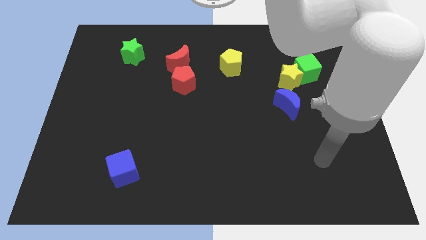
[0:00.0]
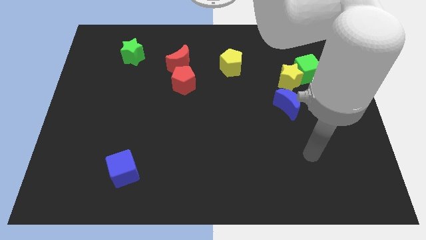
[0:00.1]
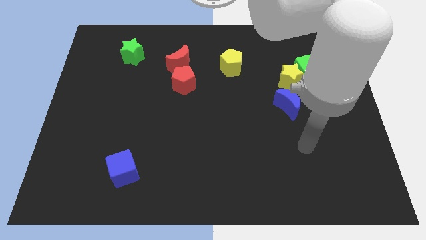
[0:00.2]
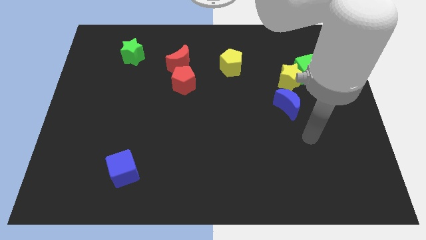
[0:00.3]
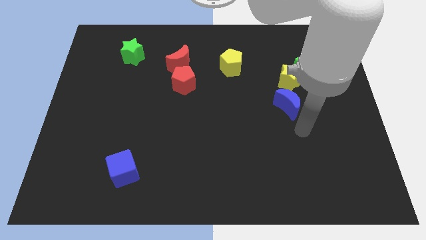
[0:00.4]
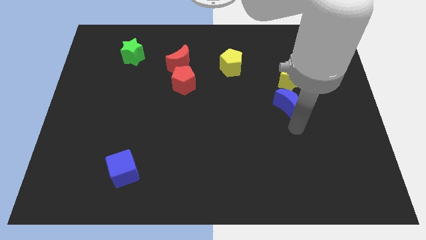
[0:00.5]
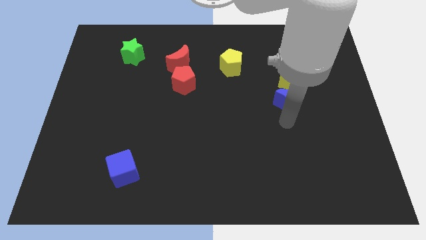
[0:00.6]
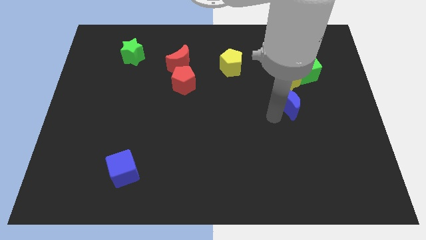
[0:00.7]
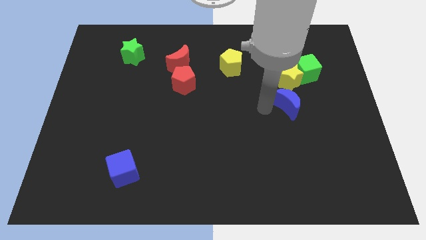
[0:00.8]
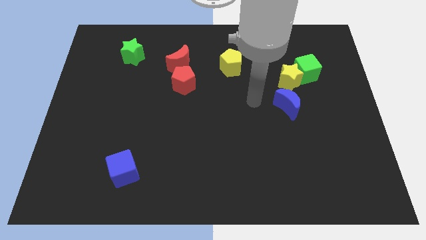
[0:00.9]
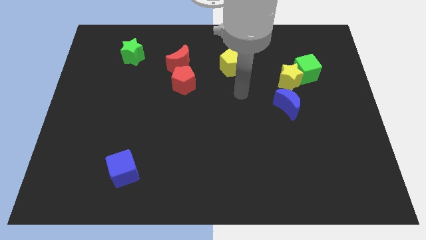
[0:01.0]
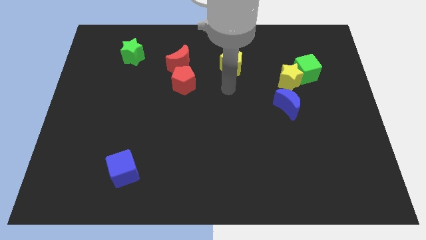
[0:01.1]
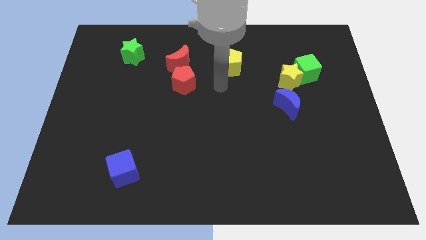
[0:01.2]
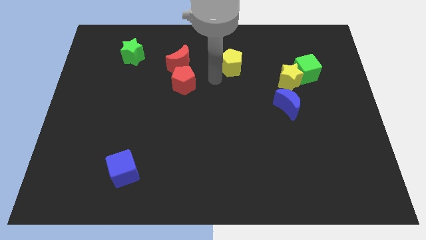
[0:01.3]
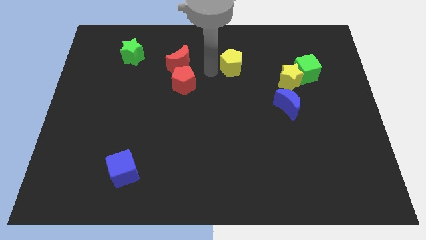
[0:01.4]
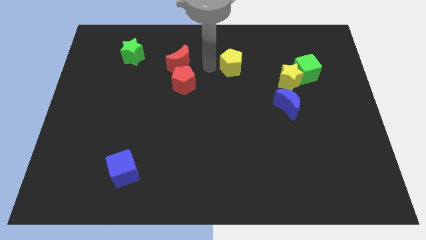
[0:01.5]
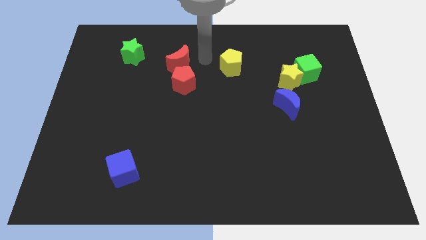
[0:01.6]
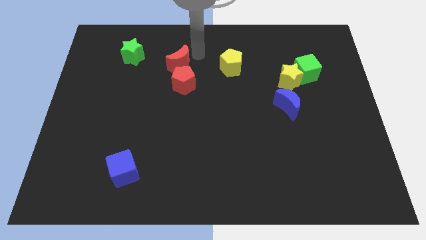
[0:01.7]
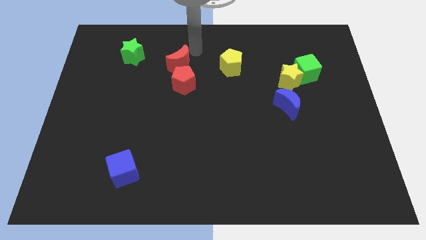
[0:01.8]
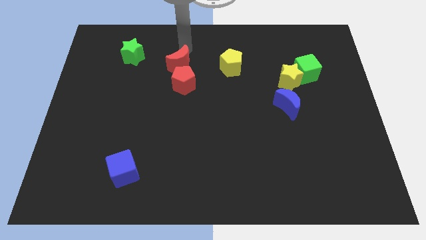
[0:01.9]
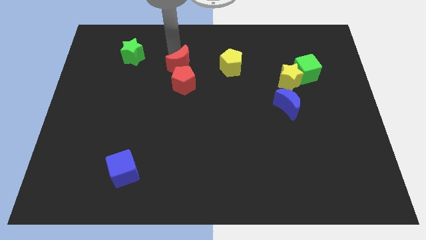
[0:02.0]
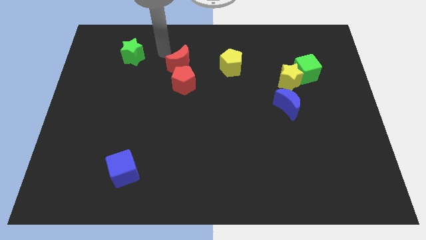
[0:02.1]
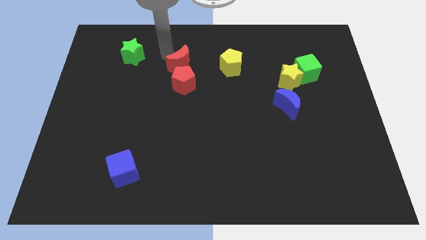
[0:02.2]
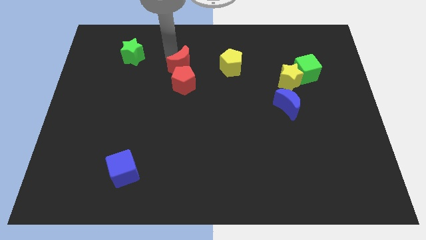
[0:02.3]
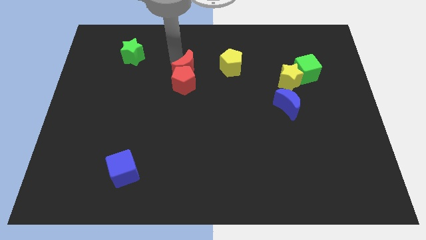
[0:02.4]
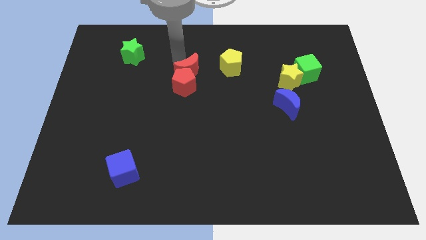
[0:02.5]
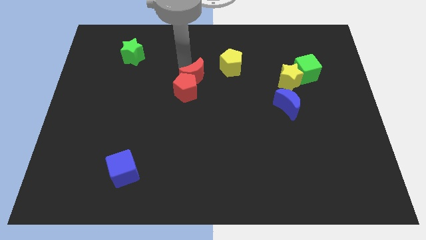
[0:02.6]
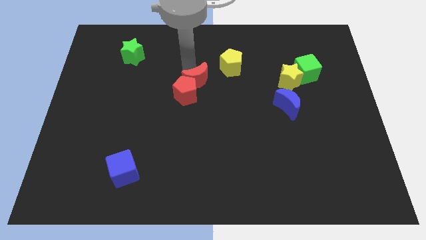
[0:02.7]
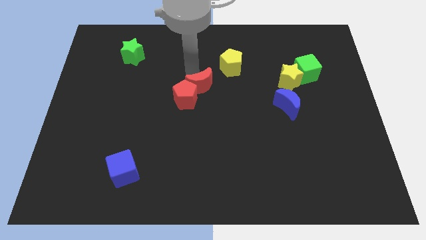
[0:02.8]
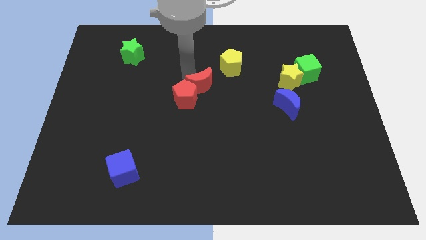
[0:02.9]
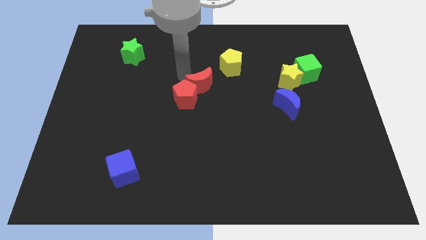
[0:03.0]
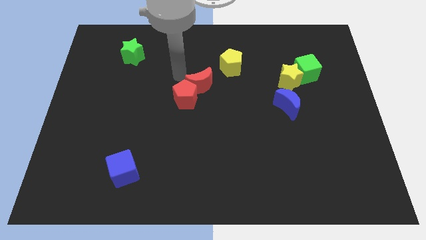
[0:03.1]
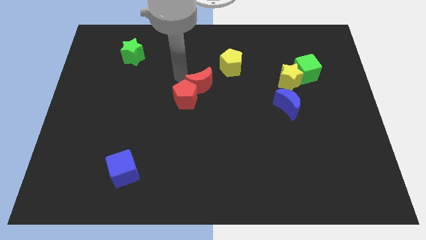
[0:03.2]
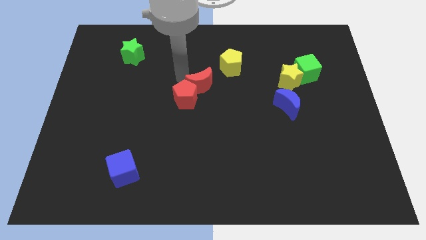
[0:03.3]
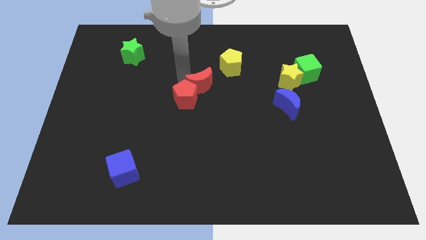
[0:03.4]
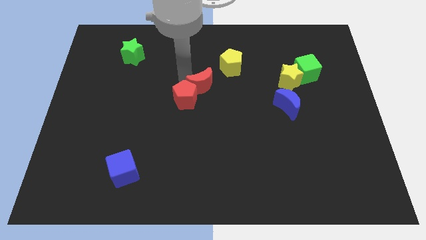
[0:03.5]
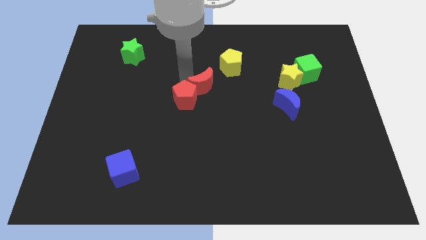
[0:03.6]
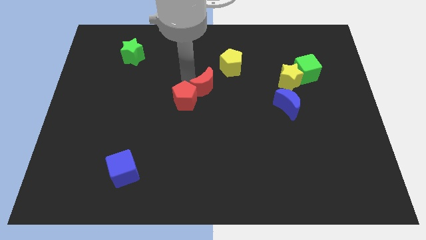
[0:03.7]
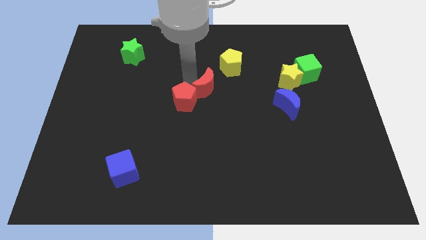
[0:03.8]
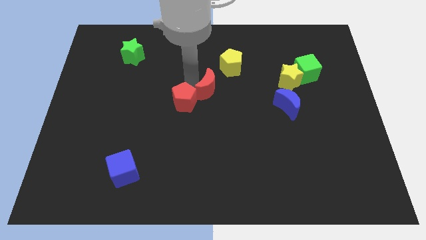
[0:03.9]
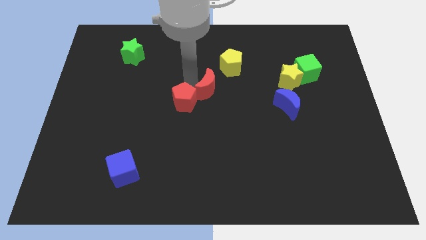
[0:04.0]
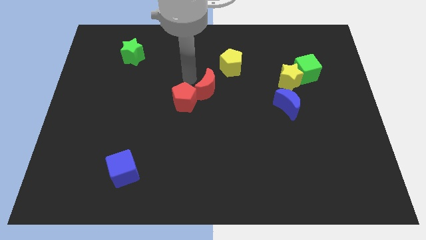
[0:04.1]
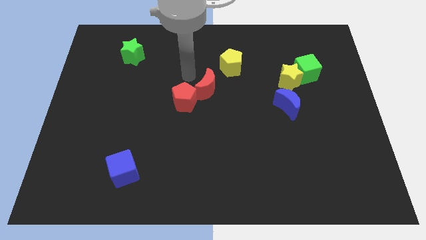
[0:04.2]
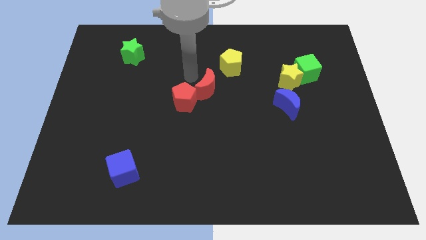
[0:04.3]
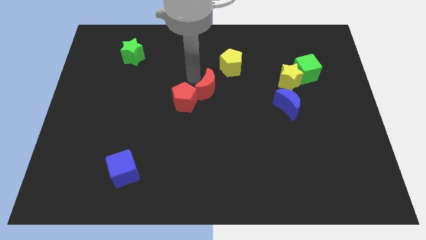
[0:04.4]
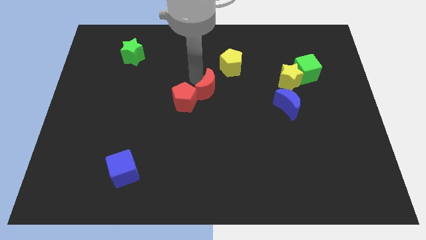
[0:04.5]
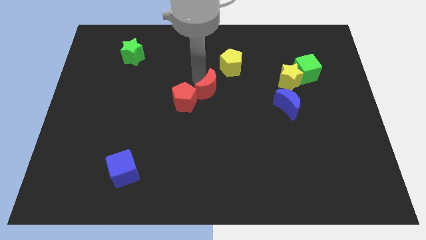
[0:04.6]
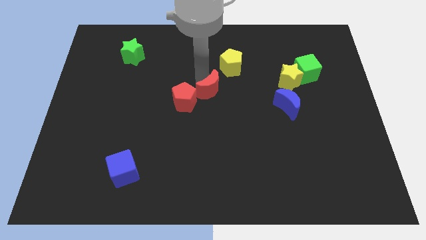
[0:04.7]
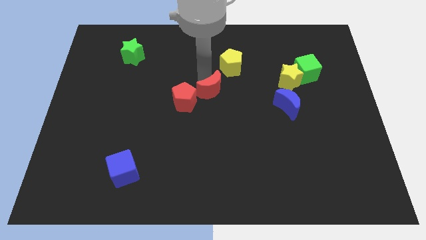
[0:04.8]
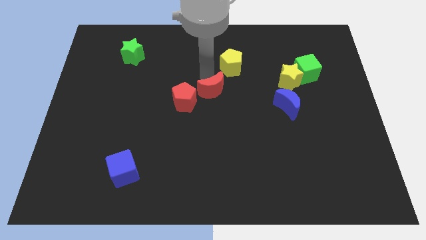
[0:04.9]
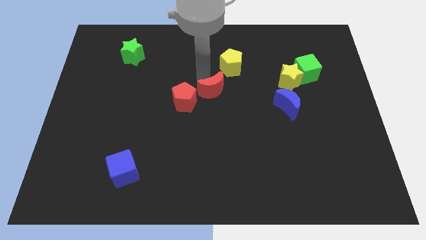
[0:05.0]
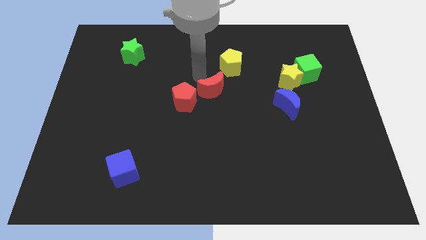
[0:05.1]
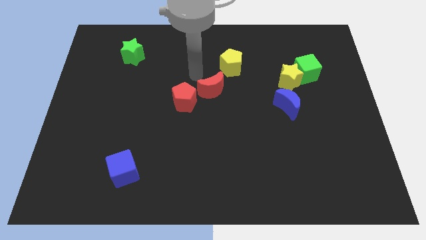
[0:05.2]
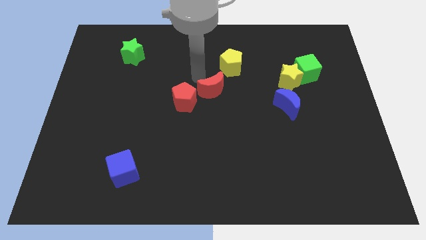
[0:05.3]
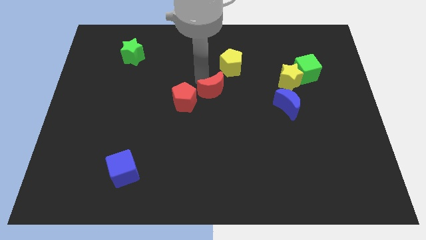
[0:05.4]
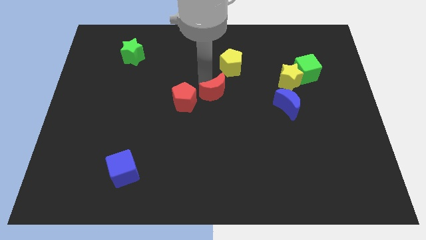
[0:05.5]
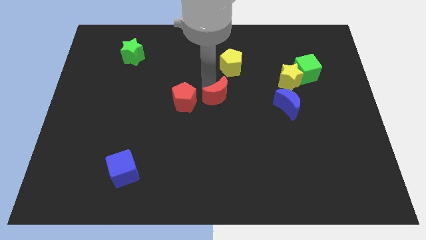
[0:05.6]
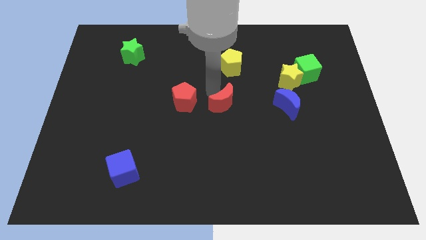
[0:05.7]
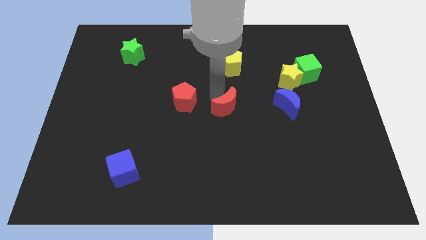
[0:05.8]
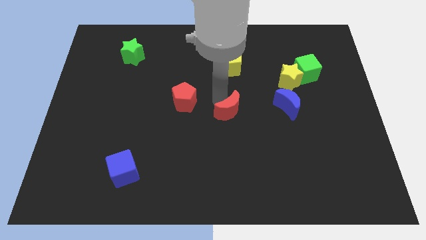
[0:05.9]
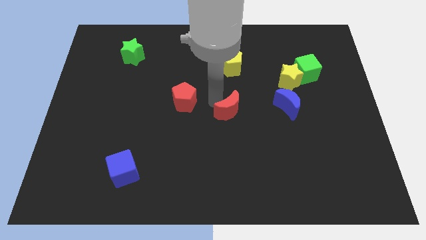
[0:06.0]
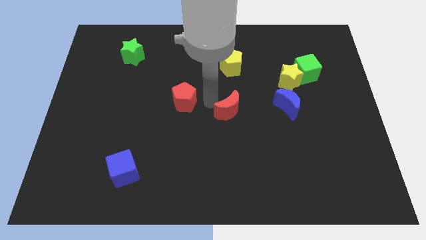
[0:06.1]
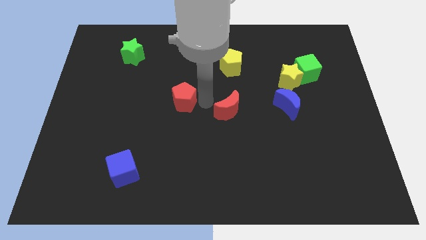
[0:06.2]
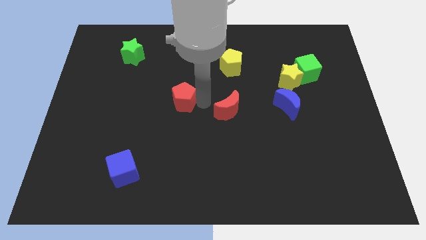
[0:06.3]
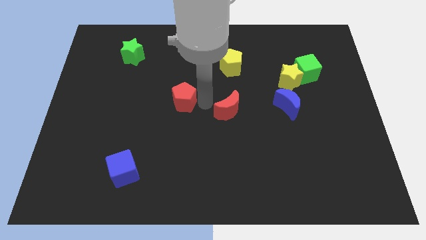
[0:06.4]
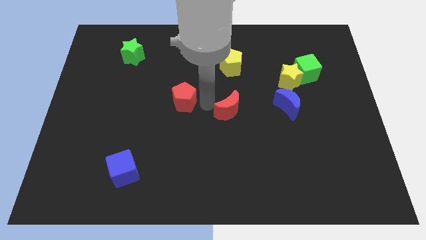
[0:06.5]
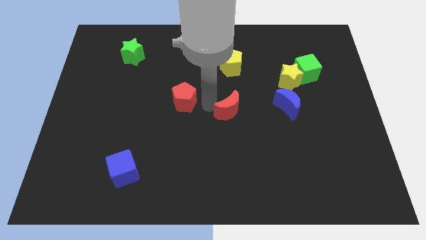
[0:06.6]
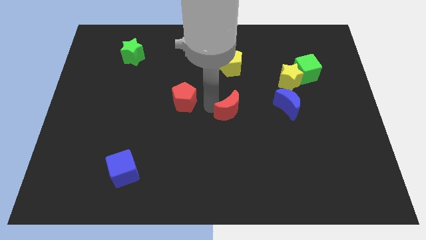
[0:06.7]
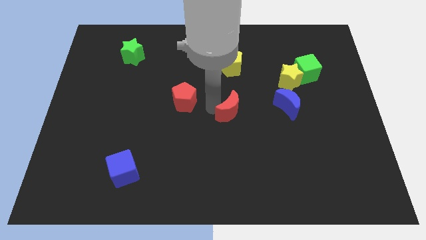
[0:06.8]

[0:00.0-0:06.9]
move the red moon diagonally downwards and right

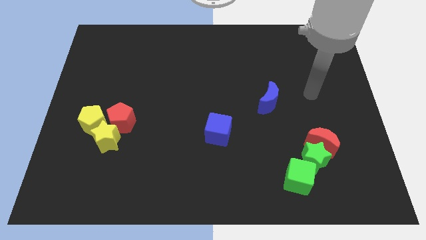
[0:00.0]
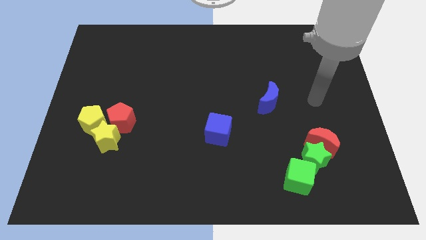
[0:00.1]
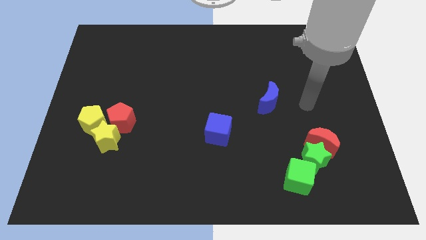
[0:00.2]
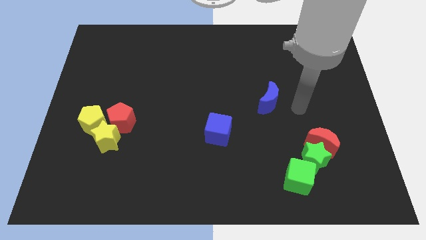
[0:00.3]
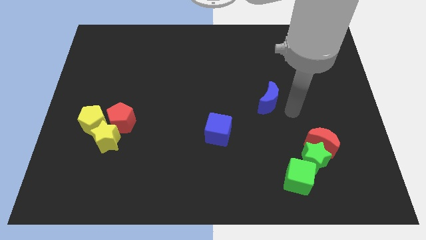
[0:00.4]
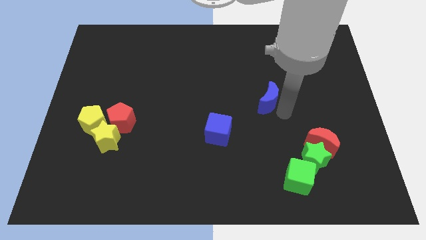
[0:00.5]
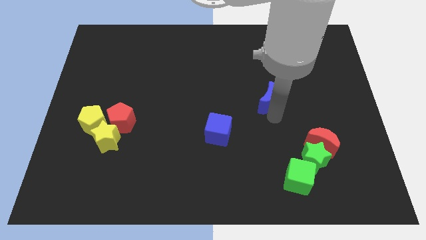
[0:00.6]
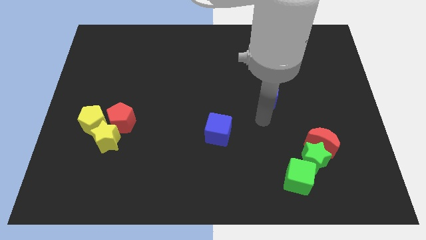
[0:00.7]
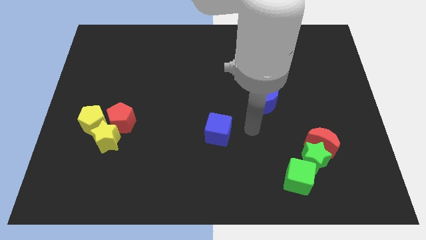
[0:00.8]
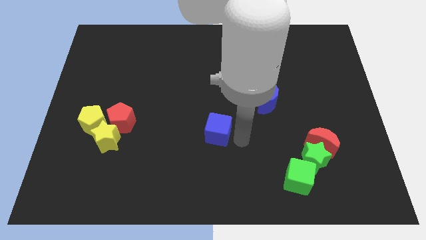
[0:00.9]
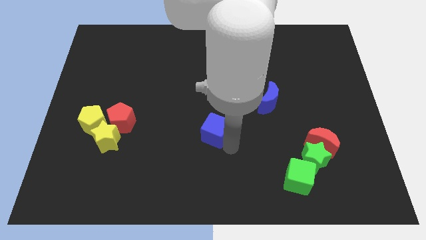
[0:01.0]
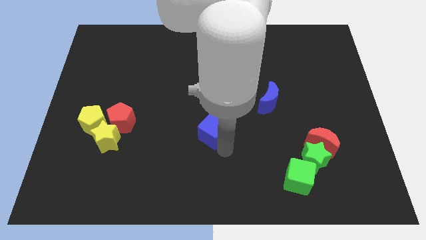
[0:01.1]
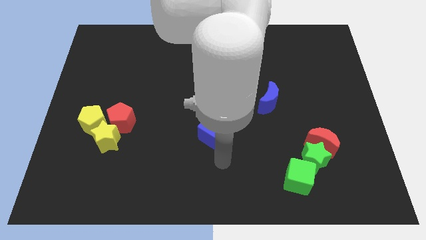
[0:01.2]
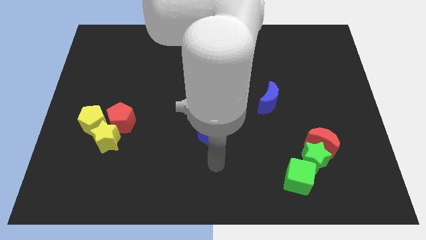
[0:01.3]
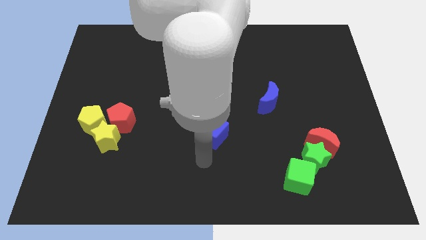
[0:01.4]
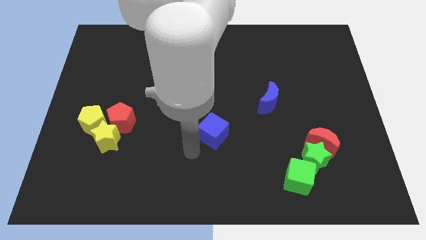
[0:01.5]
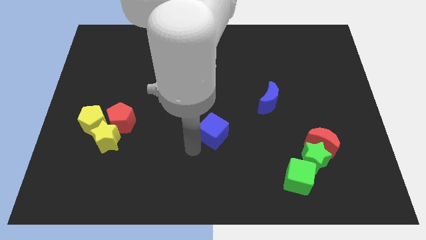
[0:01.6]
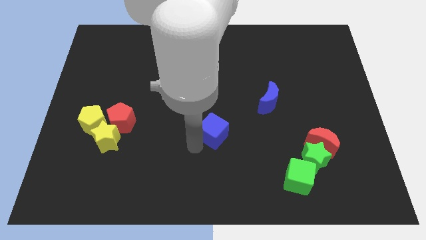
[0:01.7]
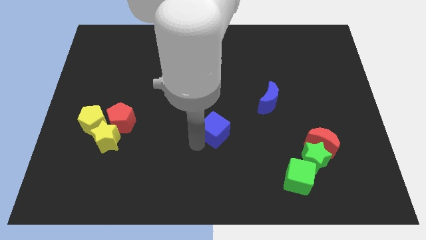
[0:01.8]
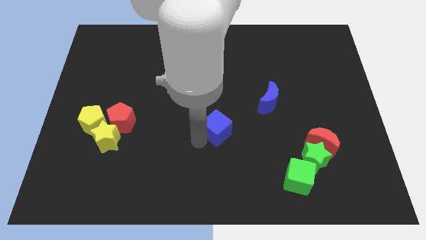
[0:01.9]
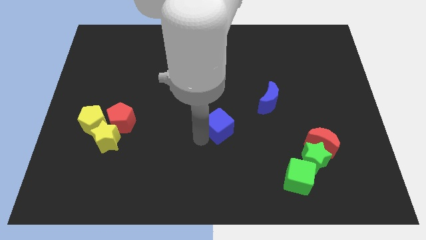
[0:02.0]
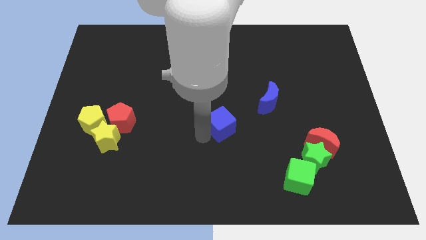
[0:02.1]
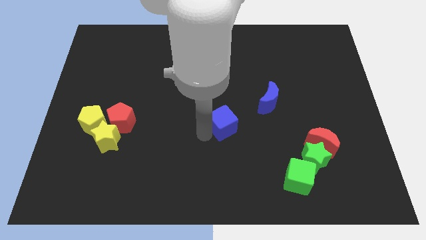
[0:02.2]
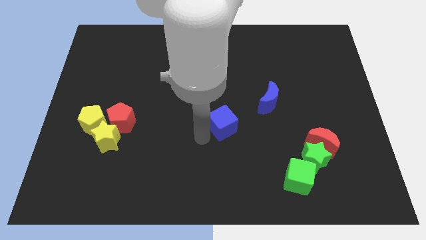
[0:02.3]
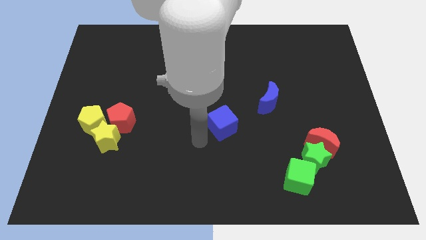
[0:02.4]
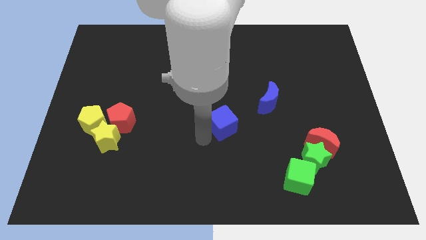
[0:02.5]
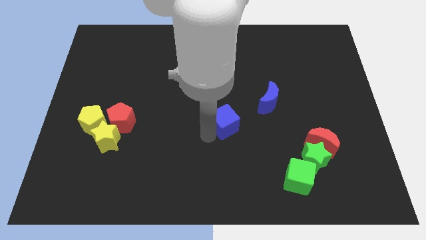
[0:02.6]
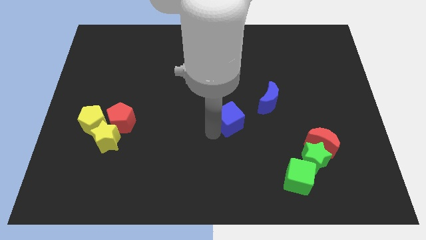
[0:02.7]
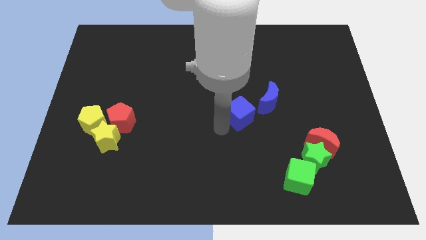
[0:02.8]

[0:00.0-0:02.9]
slightly slide the blue cube upwards and right
